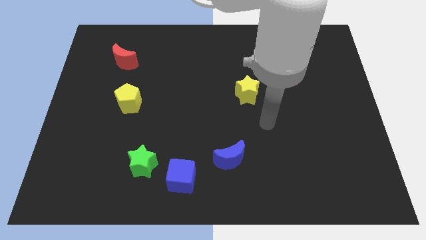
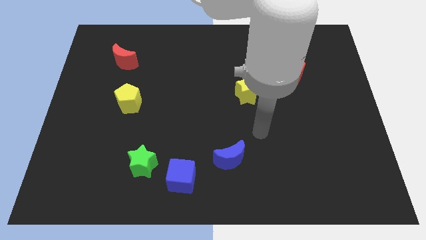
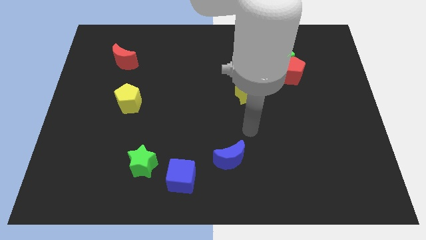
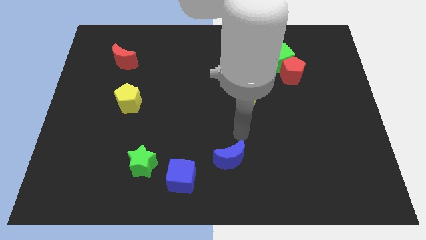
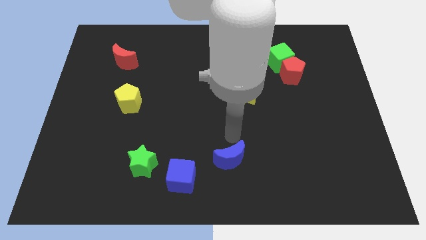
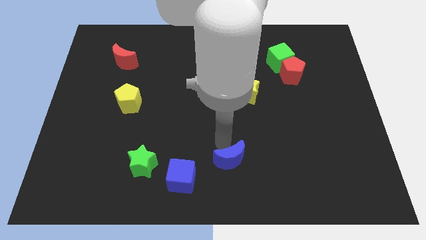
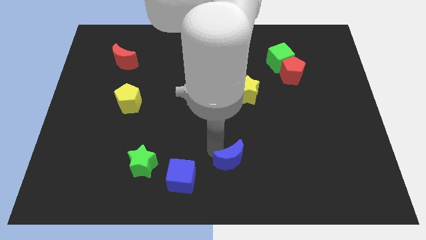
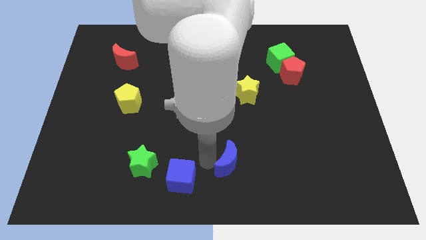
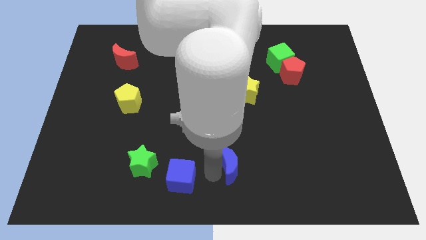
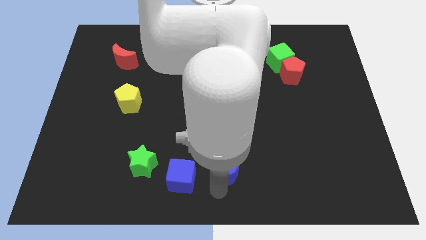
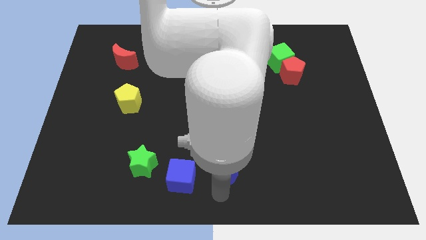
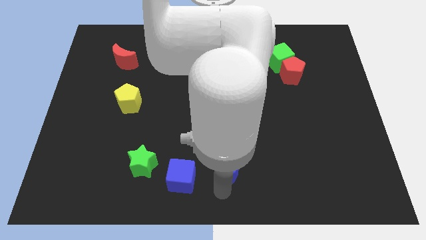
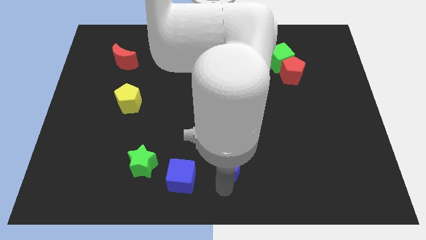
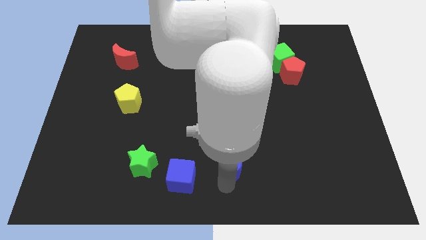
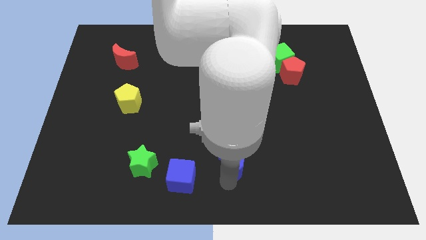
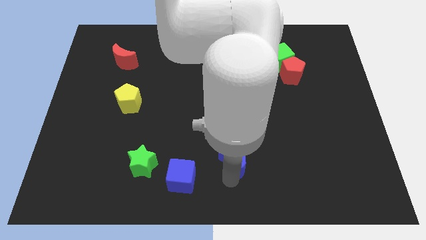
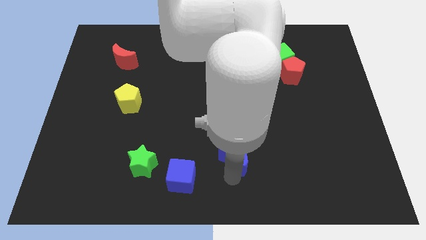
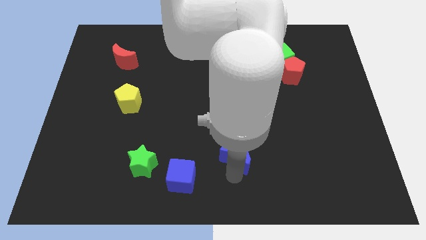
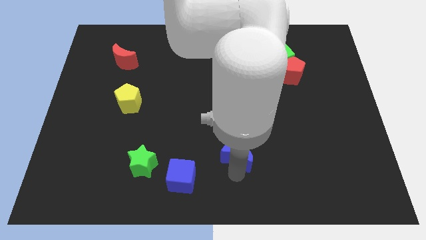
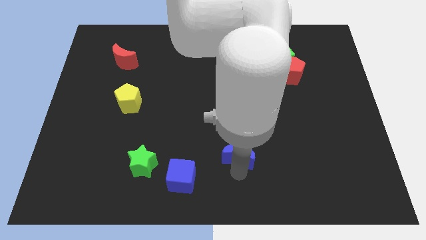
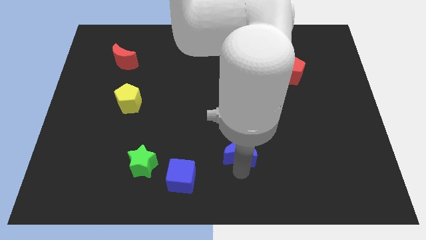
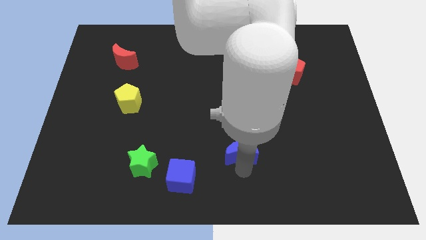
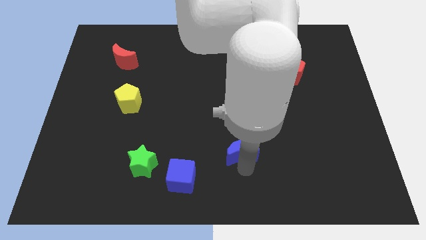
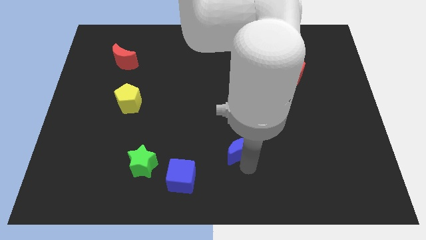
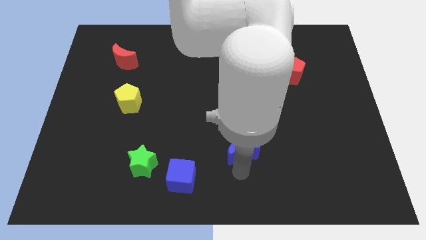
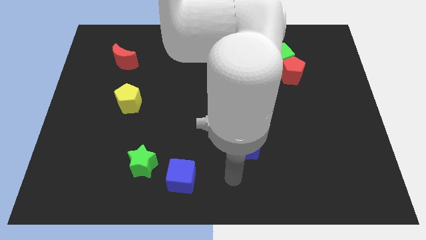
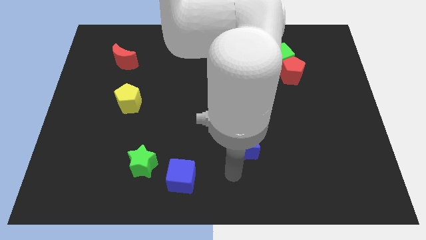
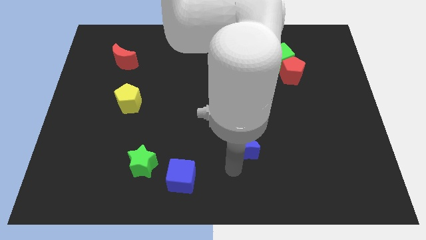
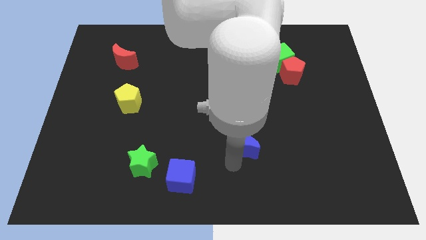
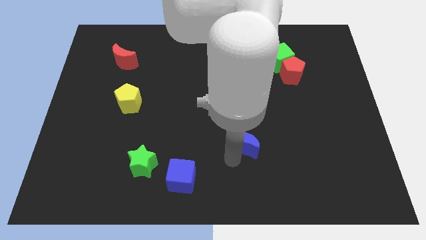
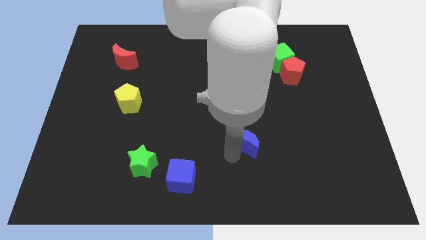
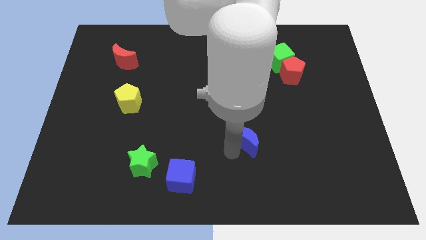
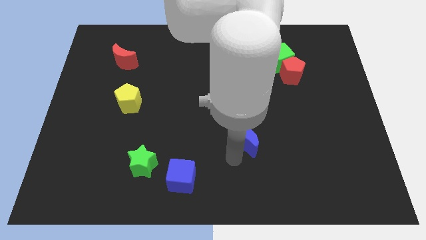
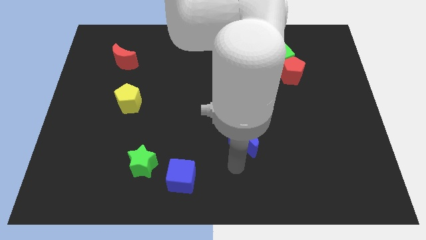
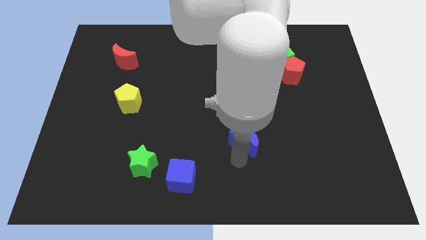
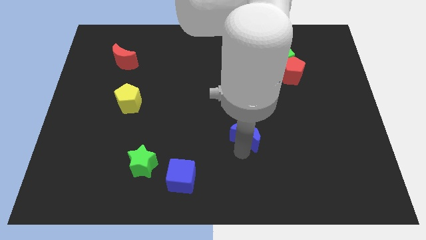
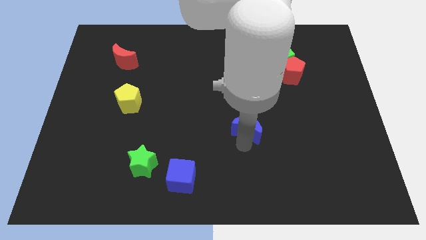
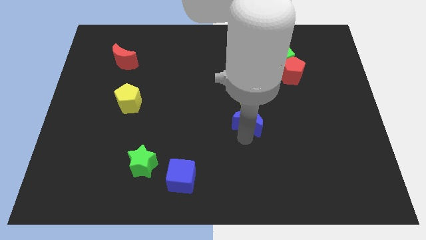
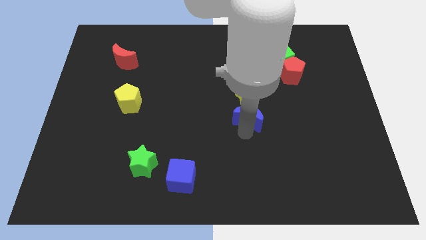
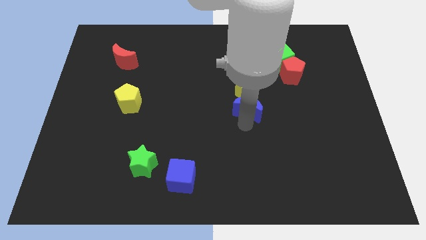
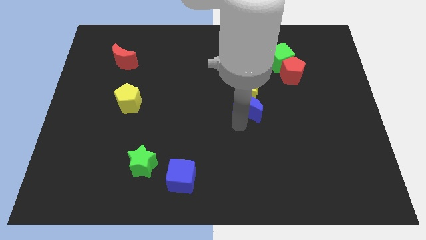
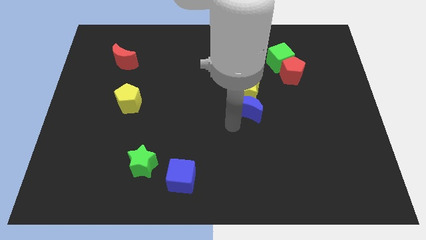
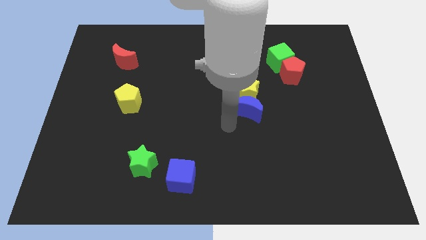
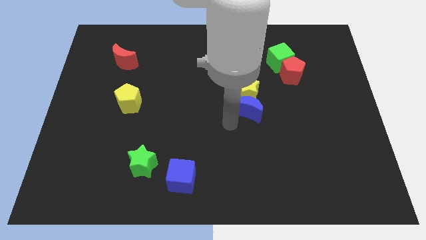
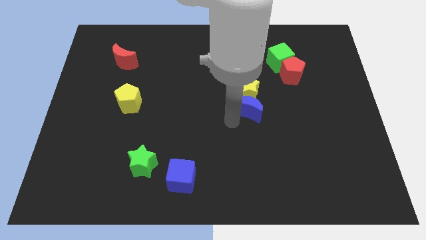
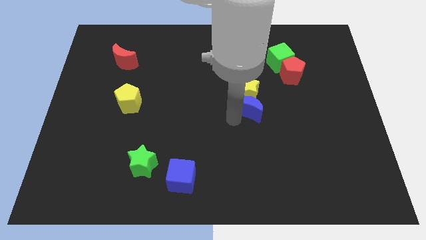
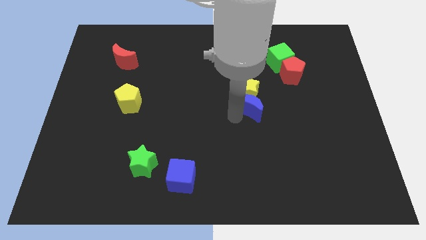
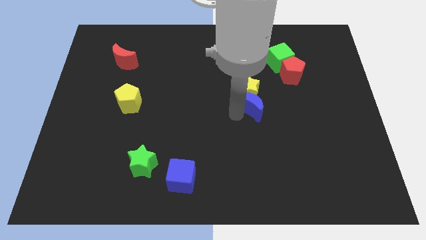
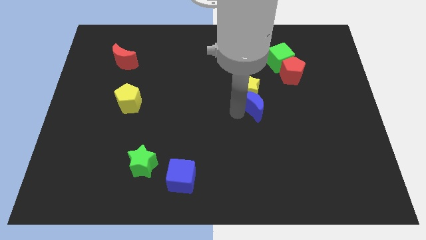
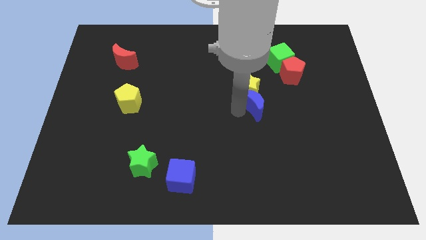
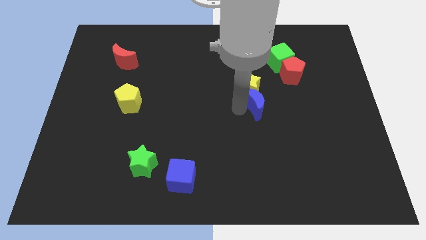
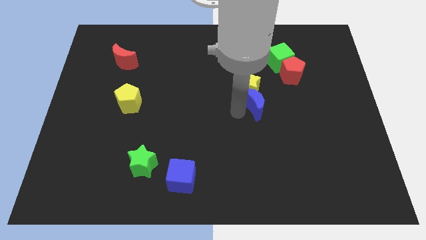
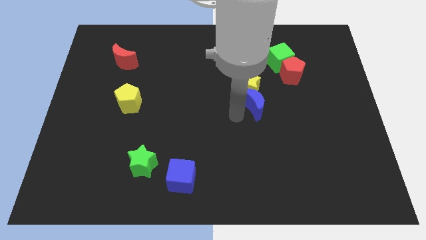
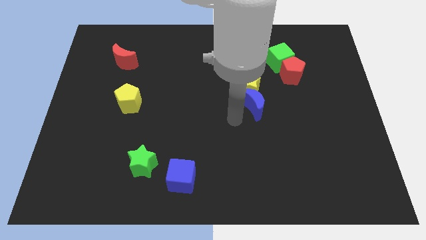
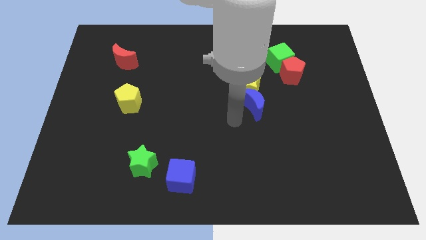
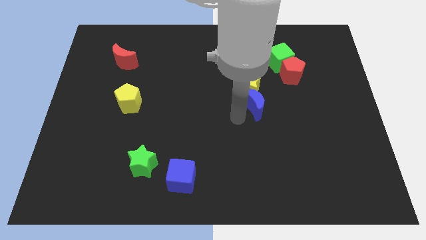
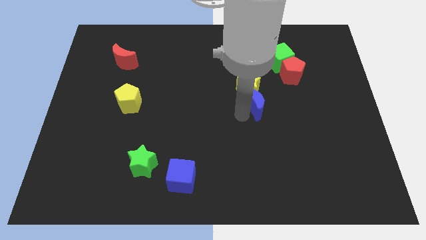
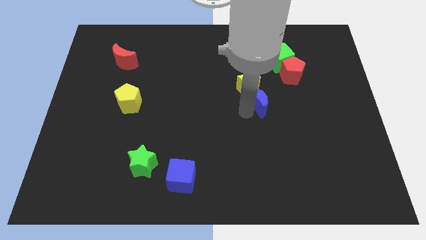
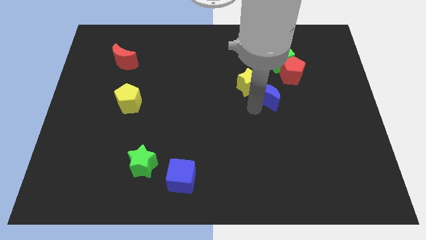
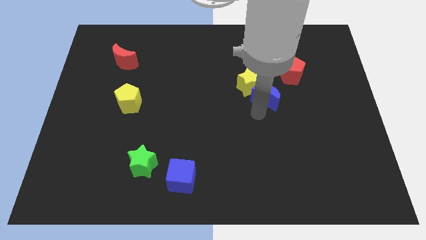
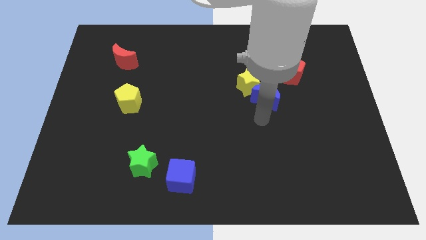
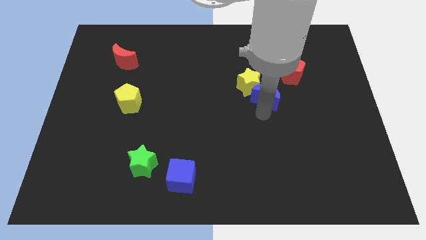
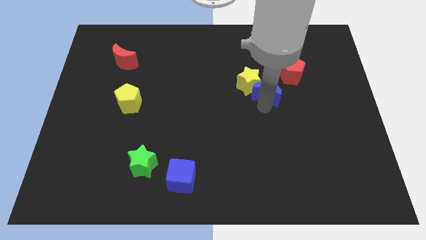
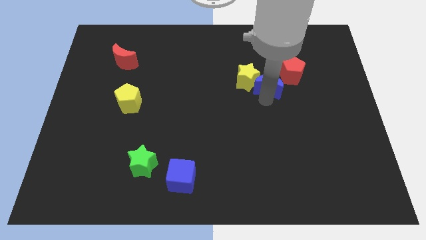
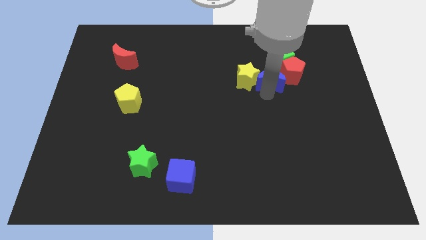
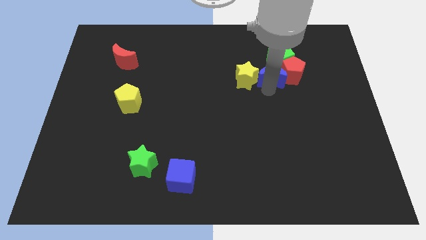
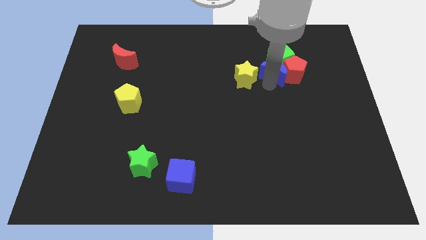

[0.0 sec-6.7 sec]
push the blue moon next to the green cube
